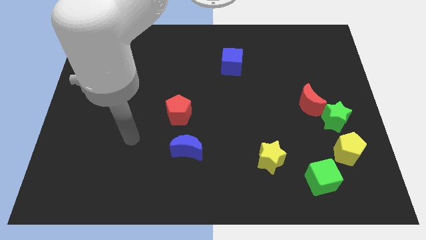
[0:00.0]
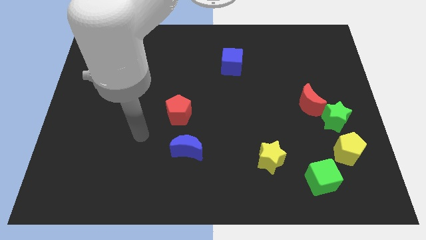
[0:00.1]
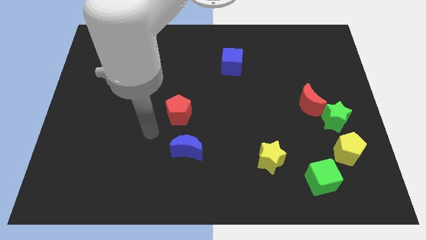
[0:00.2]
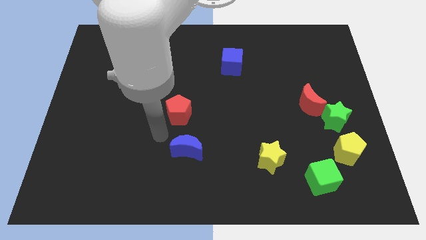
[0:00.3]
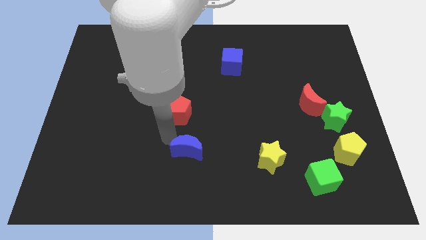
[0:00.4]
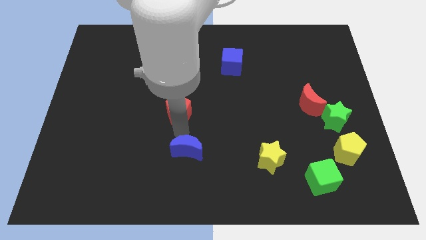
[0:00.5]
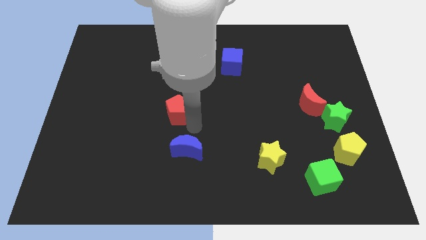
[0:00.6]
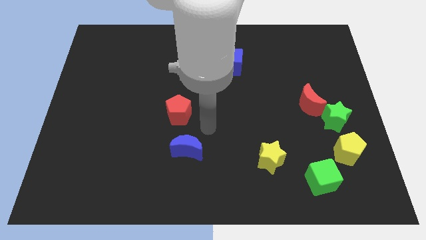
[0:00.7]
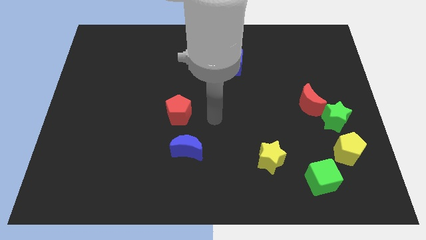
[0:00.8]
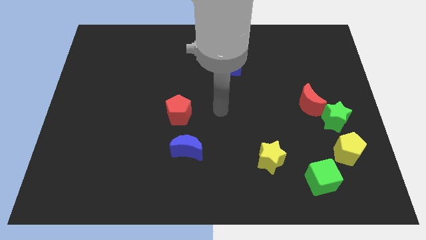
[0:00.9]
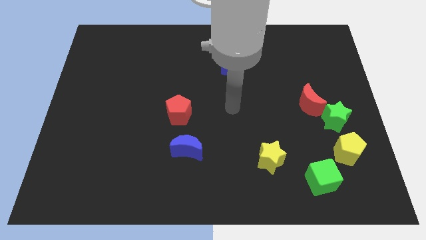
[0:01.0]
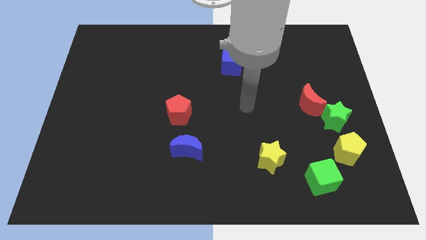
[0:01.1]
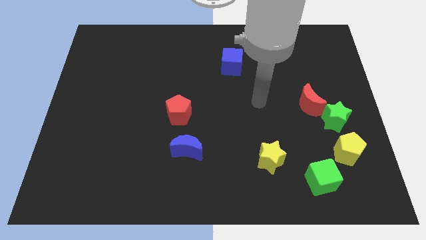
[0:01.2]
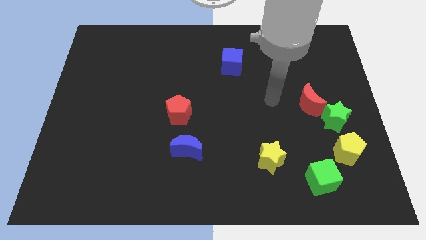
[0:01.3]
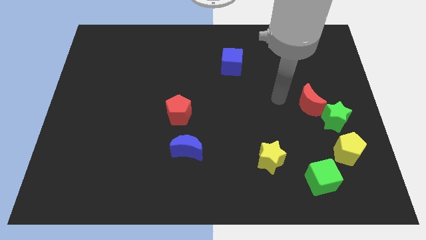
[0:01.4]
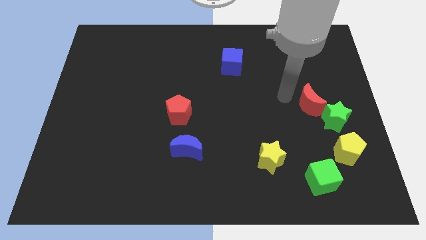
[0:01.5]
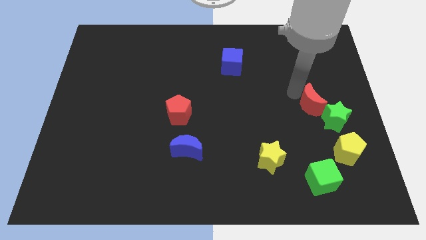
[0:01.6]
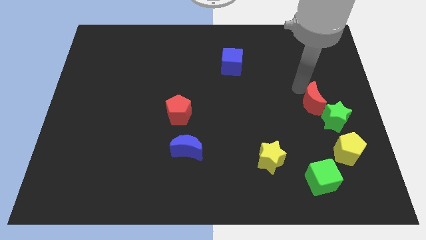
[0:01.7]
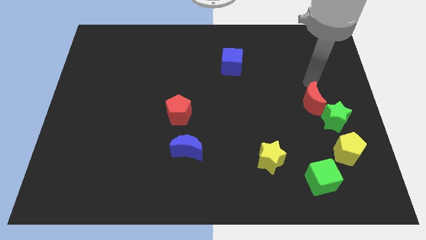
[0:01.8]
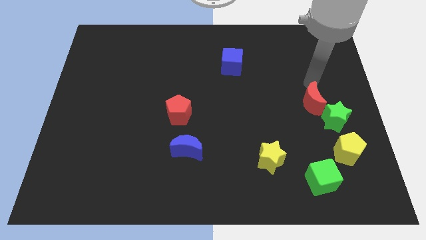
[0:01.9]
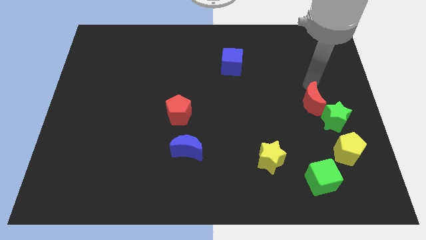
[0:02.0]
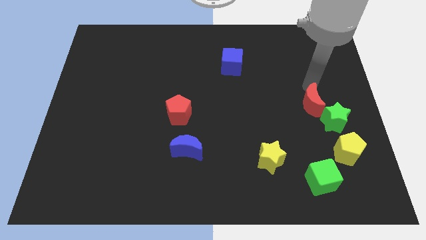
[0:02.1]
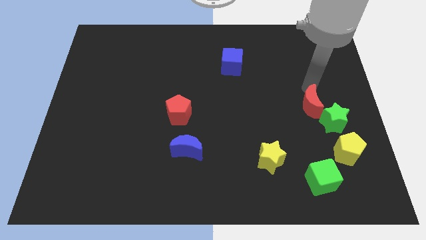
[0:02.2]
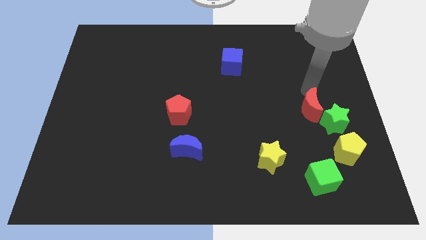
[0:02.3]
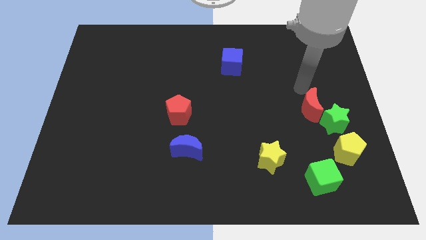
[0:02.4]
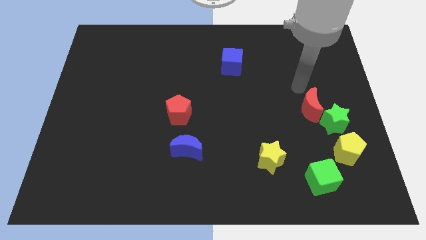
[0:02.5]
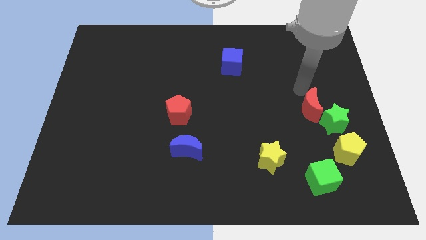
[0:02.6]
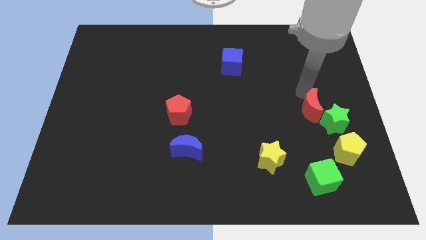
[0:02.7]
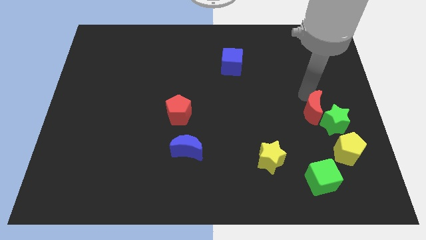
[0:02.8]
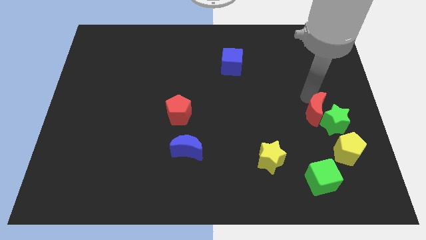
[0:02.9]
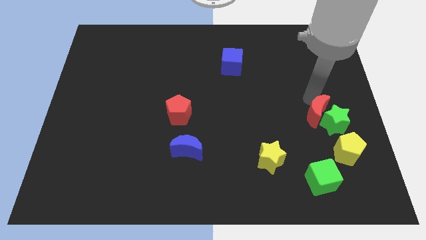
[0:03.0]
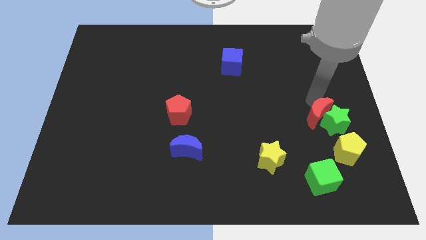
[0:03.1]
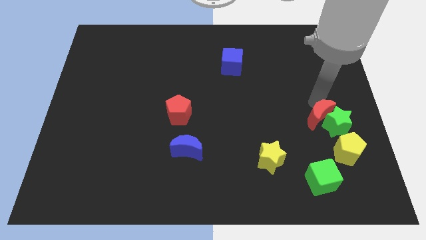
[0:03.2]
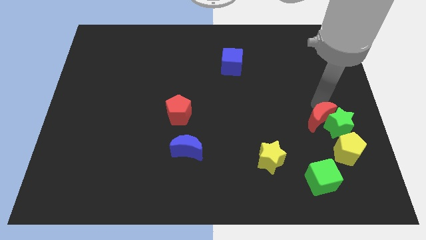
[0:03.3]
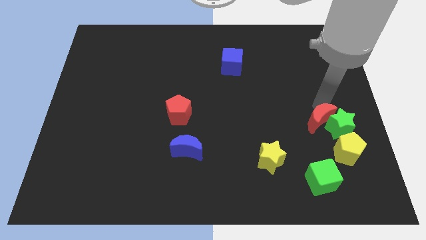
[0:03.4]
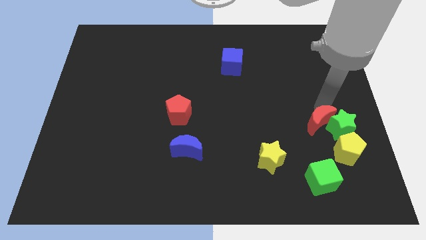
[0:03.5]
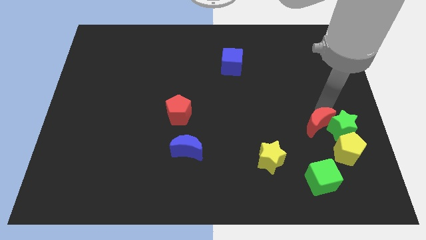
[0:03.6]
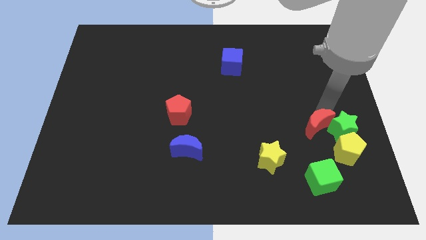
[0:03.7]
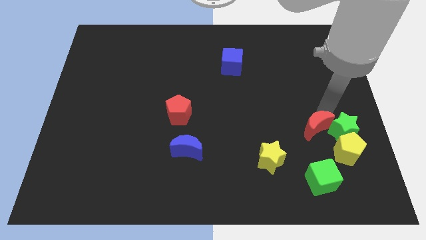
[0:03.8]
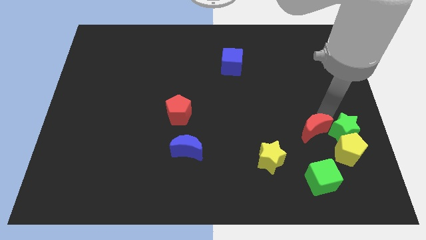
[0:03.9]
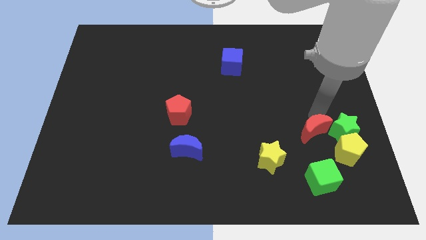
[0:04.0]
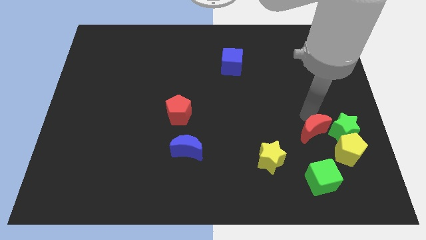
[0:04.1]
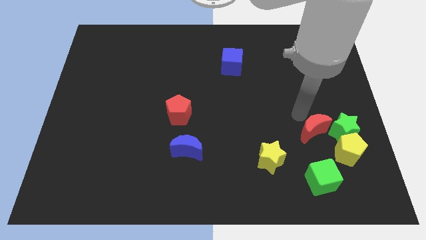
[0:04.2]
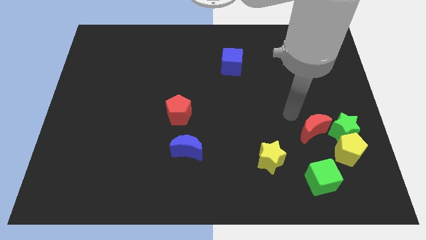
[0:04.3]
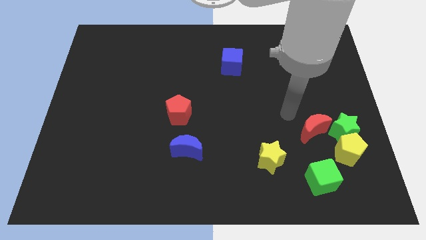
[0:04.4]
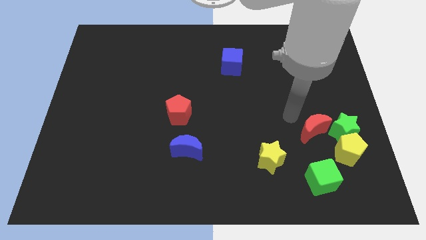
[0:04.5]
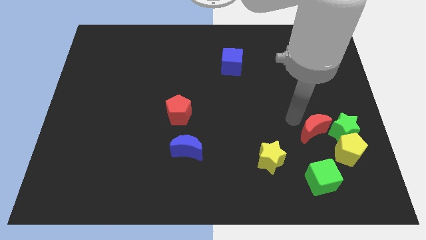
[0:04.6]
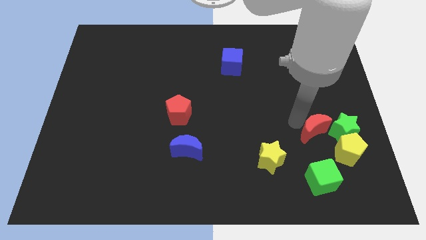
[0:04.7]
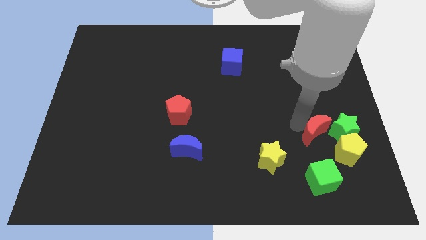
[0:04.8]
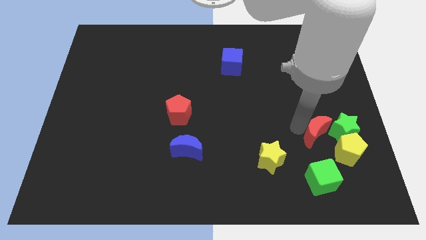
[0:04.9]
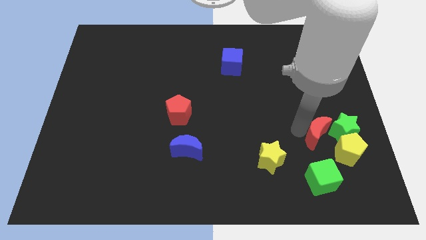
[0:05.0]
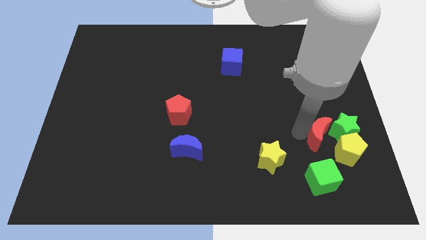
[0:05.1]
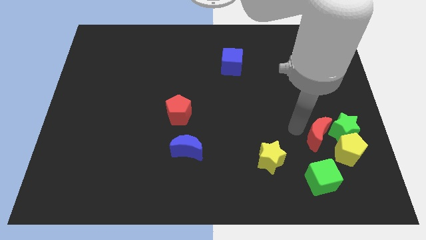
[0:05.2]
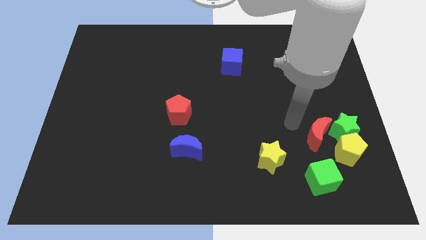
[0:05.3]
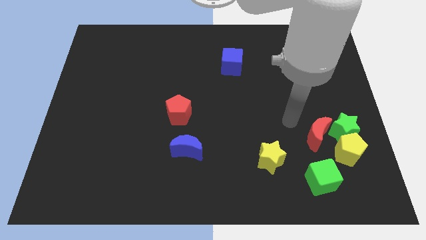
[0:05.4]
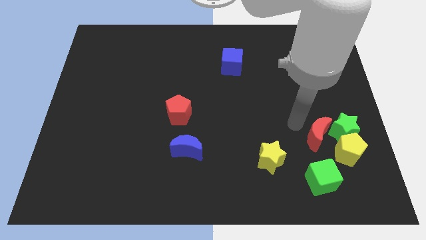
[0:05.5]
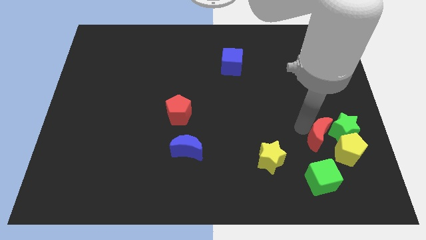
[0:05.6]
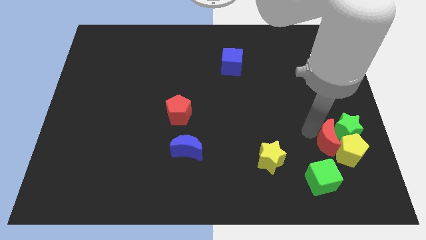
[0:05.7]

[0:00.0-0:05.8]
move the red moon next to the yellow pentagon

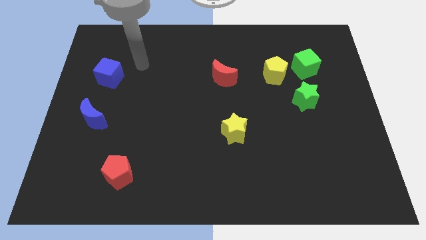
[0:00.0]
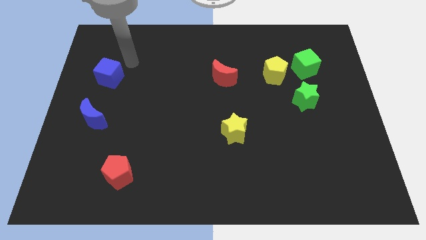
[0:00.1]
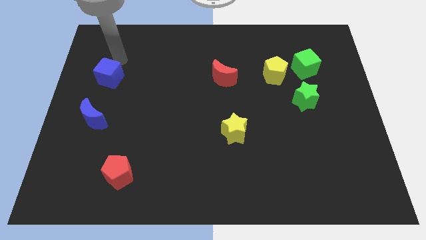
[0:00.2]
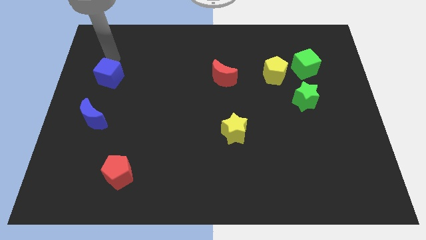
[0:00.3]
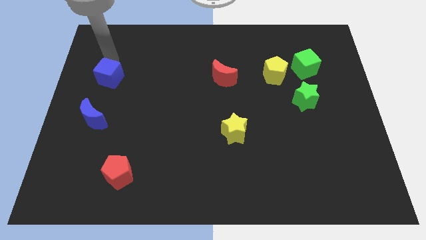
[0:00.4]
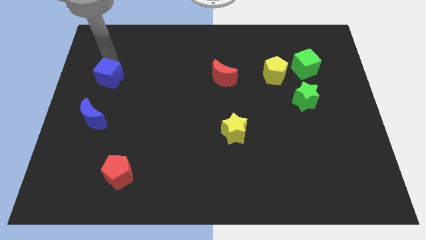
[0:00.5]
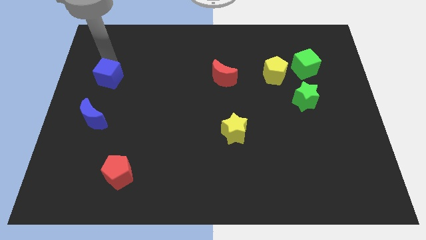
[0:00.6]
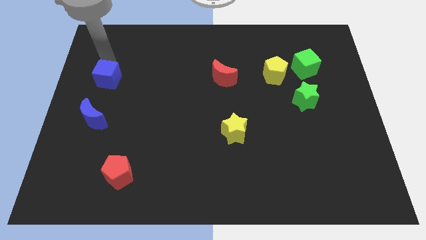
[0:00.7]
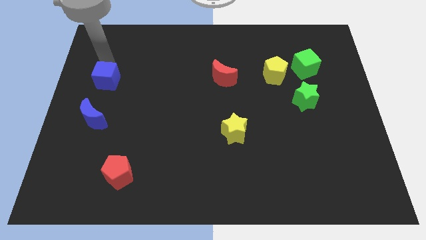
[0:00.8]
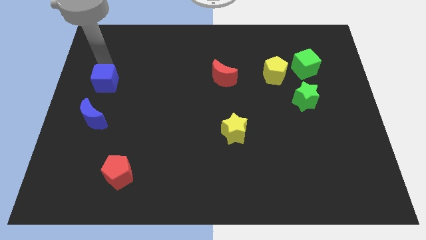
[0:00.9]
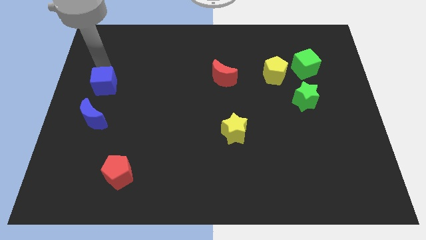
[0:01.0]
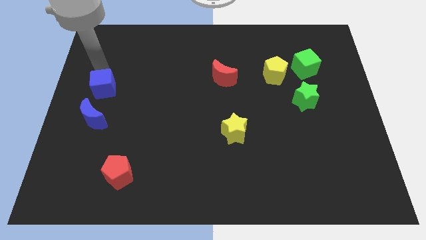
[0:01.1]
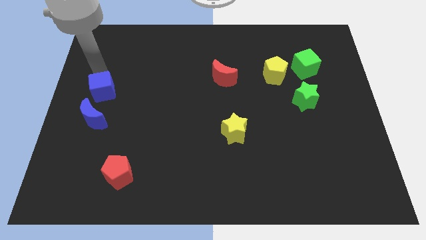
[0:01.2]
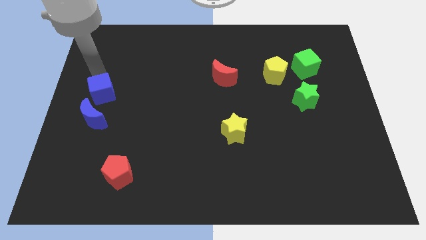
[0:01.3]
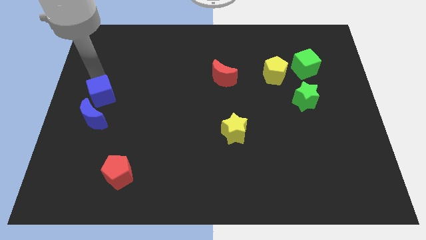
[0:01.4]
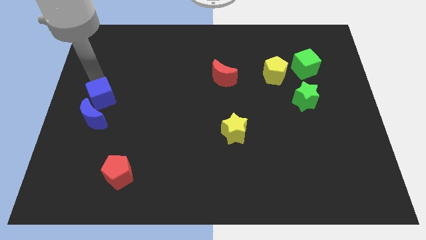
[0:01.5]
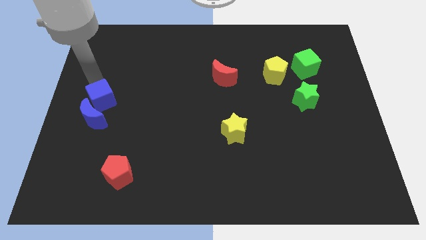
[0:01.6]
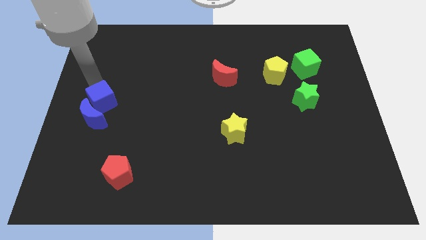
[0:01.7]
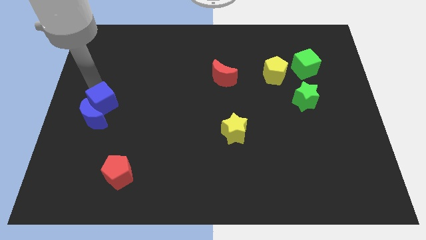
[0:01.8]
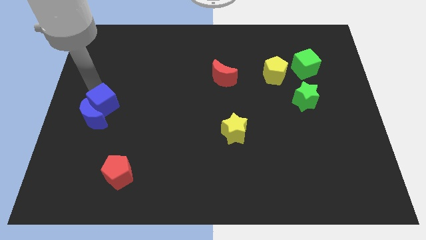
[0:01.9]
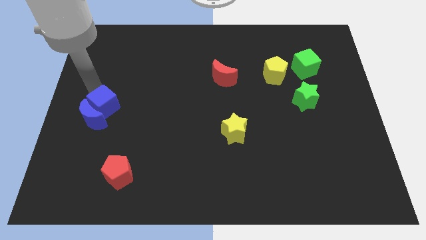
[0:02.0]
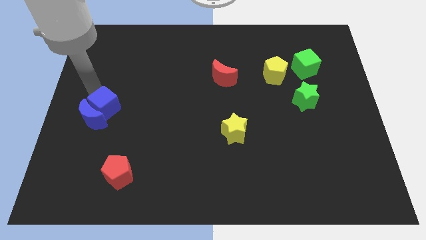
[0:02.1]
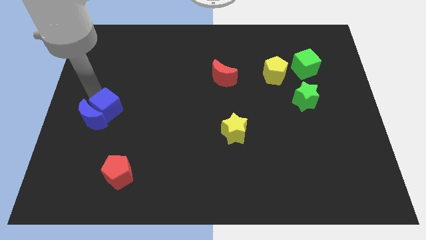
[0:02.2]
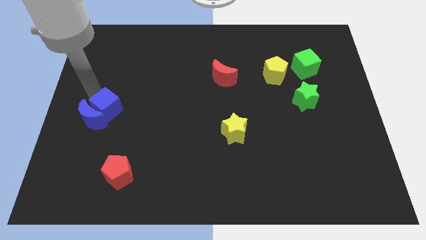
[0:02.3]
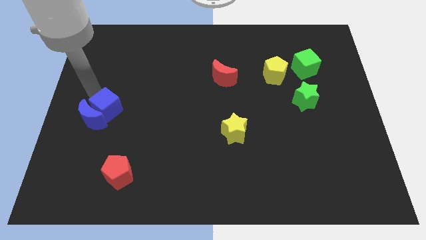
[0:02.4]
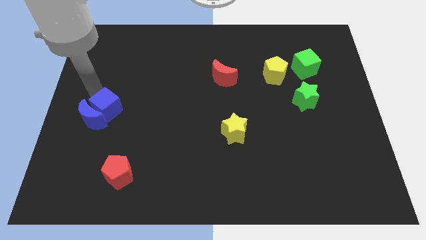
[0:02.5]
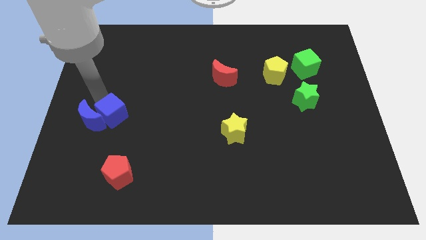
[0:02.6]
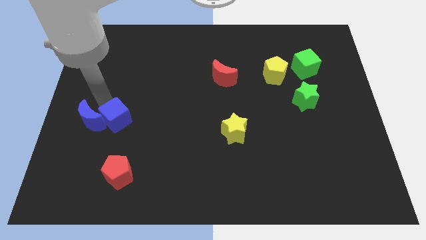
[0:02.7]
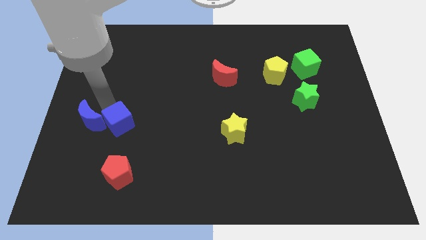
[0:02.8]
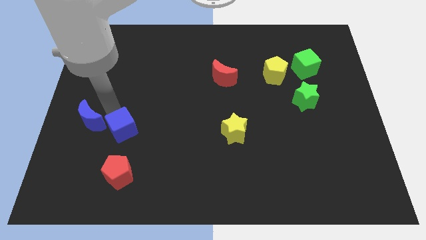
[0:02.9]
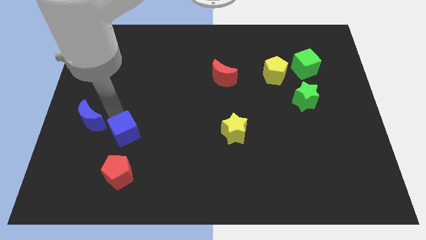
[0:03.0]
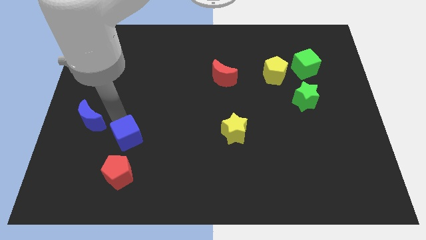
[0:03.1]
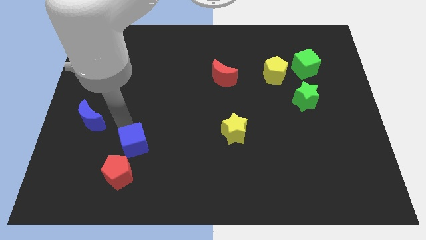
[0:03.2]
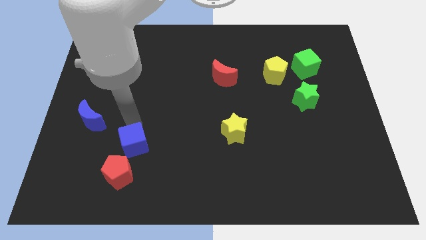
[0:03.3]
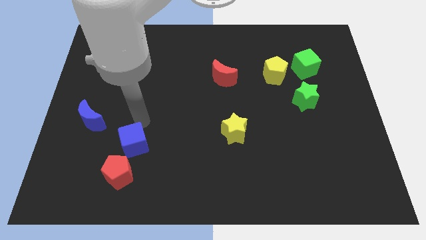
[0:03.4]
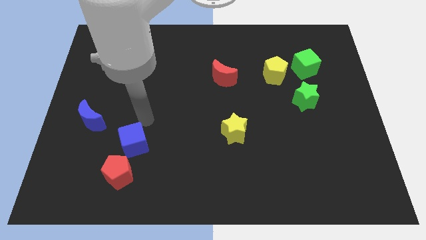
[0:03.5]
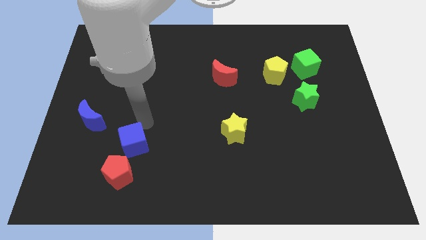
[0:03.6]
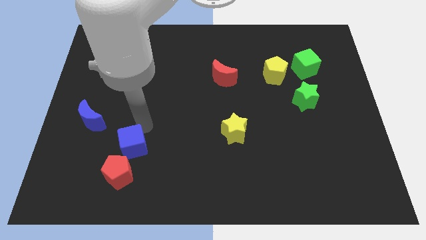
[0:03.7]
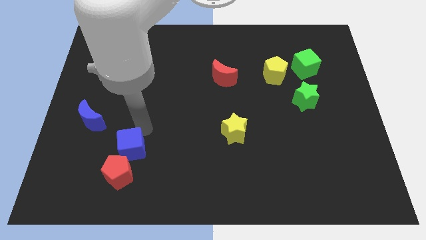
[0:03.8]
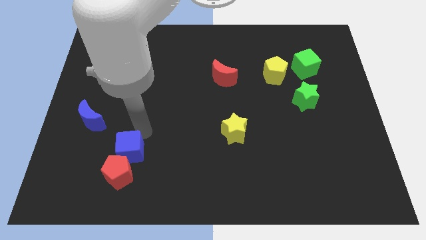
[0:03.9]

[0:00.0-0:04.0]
slide the blue cube towards the red pentagon
